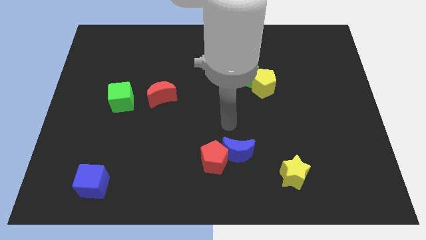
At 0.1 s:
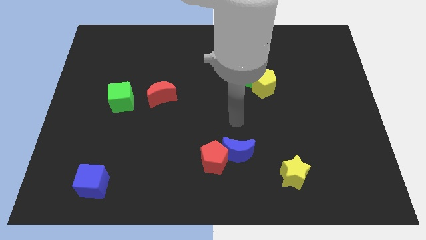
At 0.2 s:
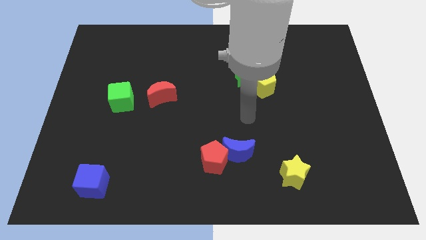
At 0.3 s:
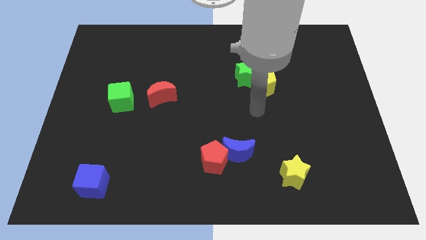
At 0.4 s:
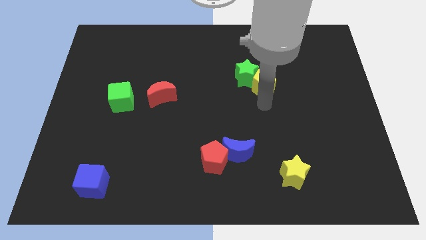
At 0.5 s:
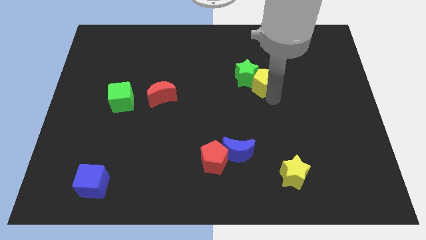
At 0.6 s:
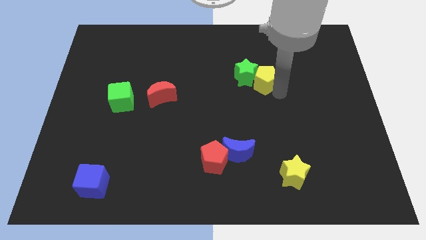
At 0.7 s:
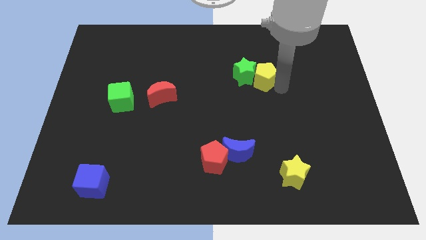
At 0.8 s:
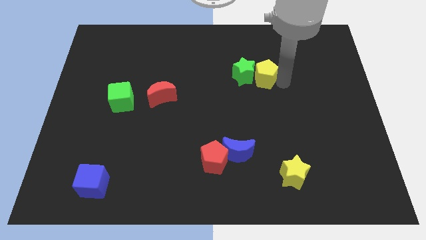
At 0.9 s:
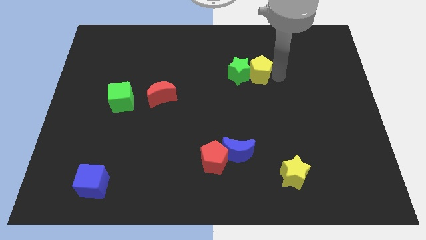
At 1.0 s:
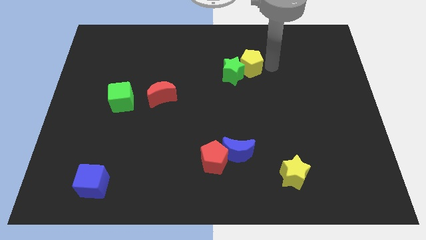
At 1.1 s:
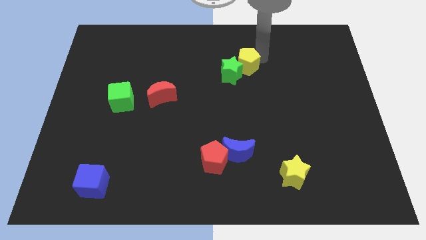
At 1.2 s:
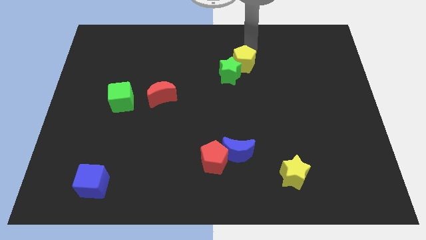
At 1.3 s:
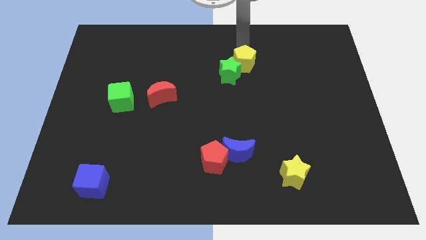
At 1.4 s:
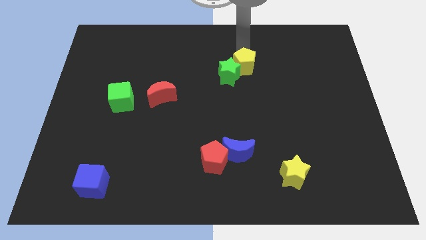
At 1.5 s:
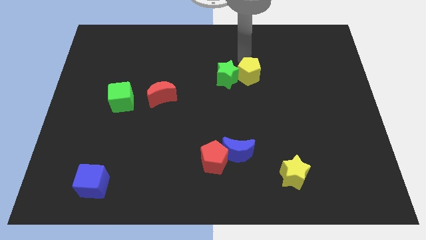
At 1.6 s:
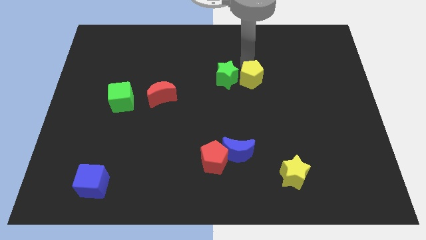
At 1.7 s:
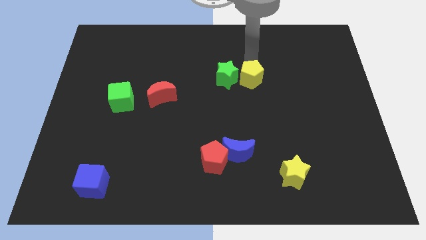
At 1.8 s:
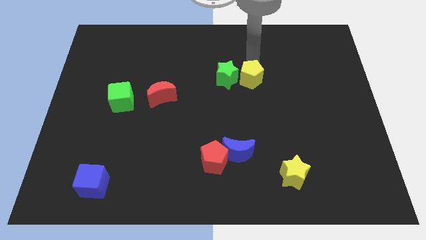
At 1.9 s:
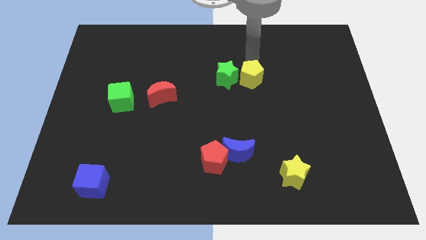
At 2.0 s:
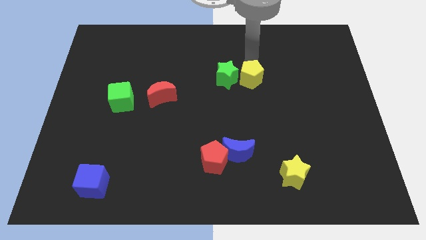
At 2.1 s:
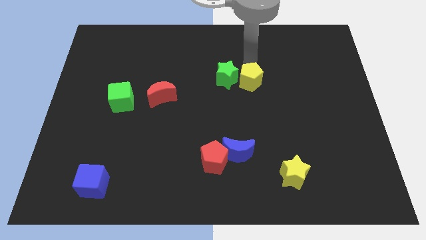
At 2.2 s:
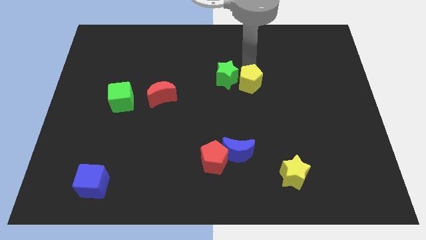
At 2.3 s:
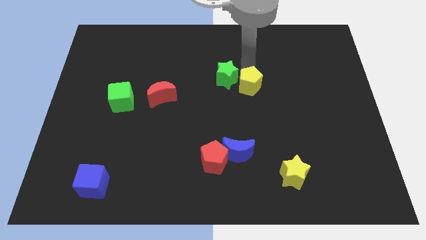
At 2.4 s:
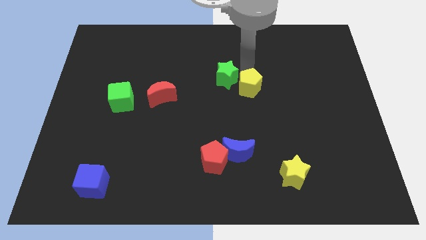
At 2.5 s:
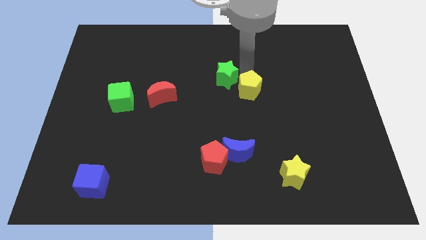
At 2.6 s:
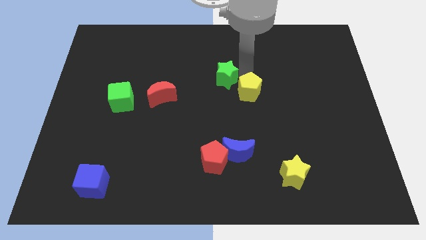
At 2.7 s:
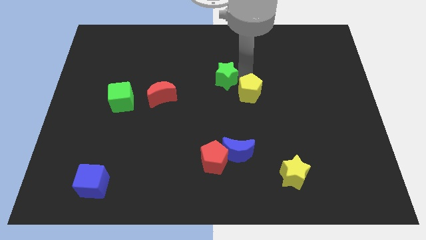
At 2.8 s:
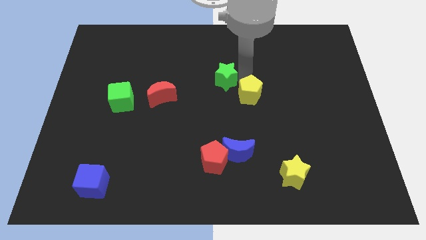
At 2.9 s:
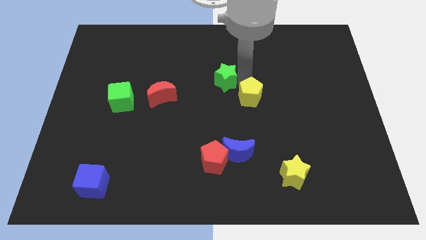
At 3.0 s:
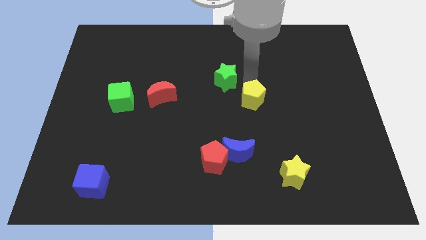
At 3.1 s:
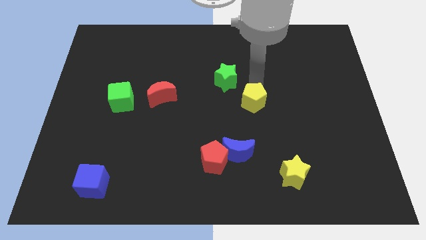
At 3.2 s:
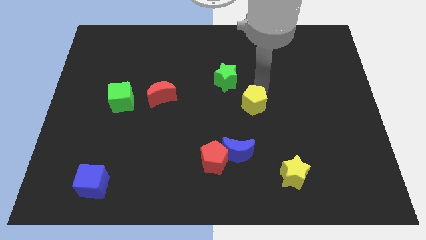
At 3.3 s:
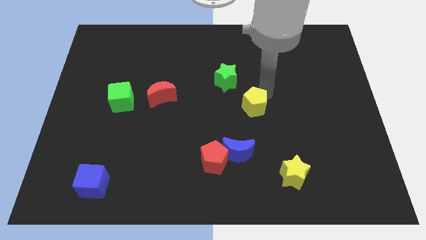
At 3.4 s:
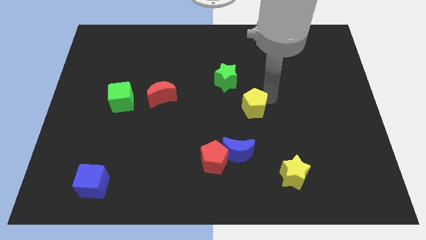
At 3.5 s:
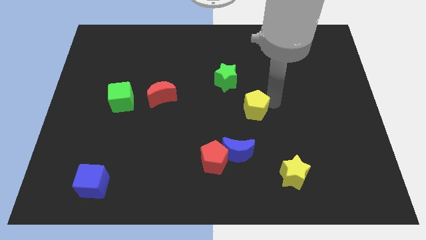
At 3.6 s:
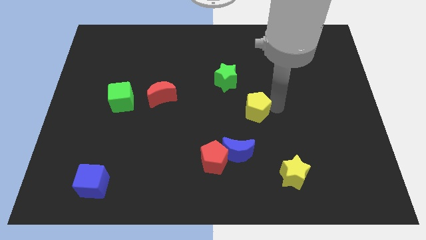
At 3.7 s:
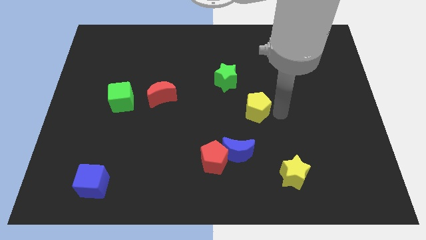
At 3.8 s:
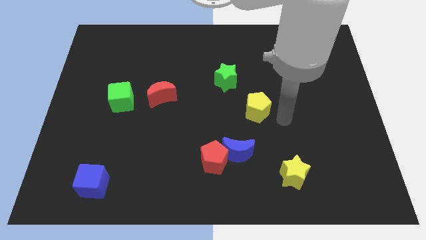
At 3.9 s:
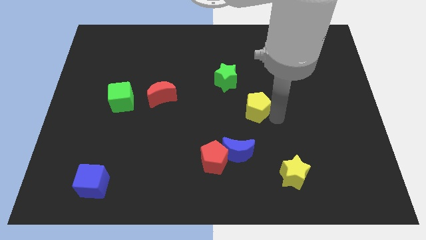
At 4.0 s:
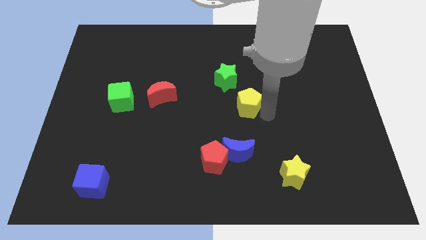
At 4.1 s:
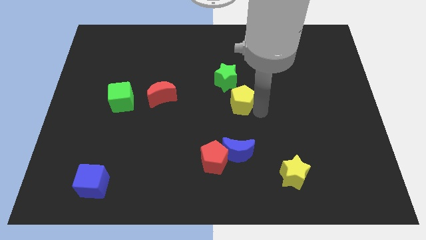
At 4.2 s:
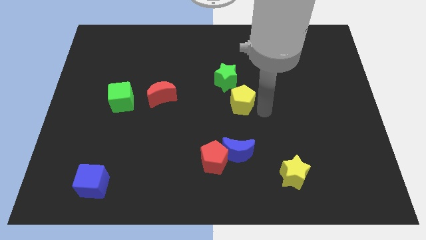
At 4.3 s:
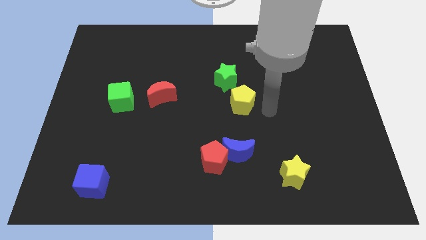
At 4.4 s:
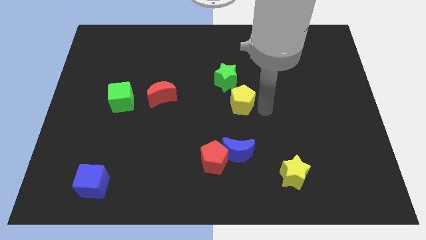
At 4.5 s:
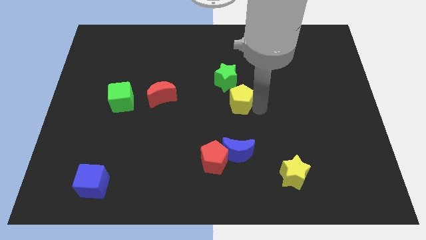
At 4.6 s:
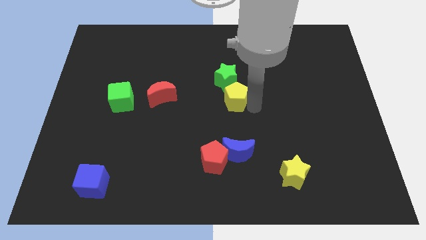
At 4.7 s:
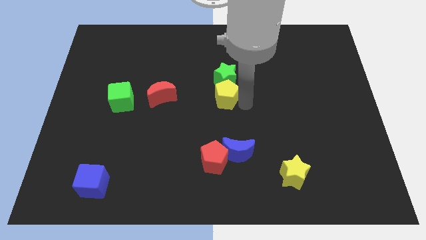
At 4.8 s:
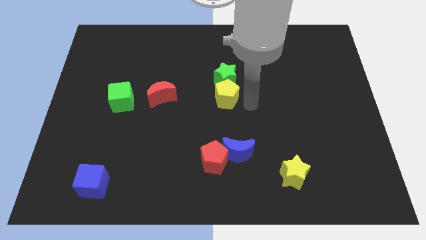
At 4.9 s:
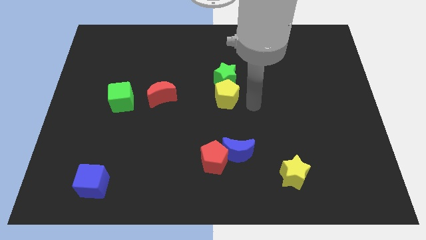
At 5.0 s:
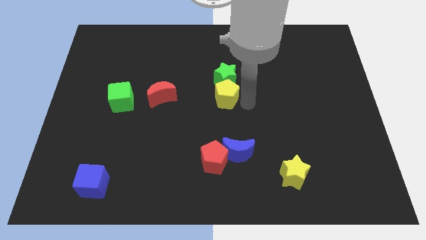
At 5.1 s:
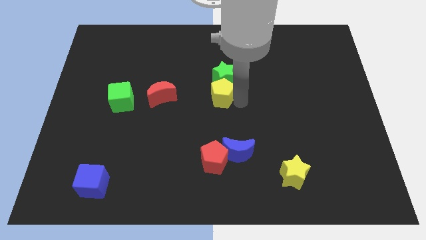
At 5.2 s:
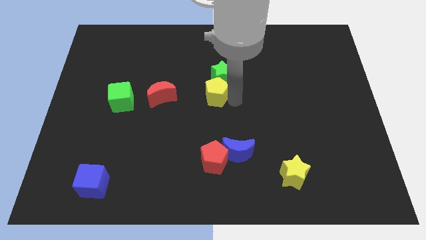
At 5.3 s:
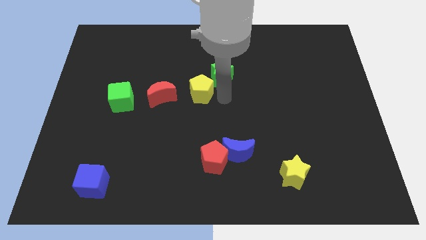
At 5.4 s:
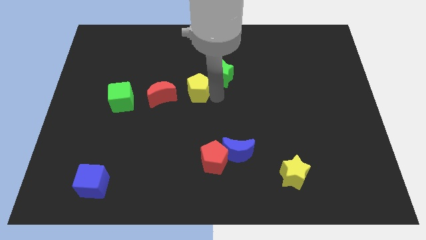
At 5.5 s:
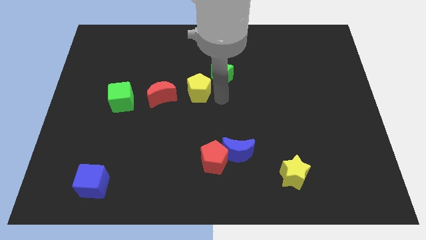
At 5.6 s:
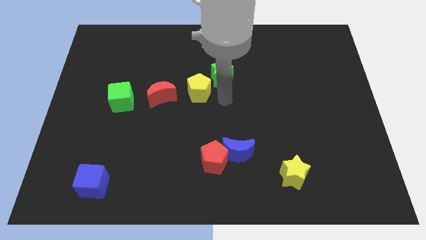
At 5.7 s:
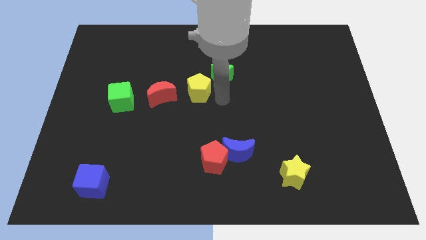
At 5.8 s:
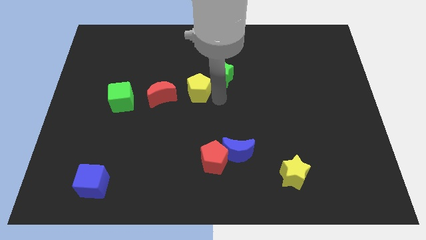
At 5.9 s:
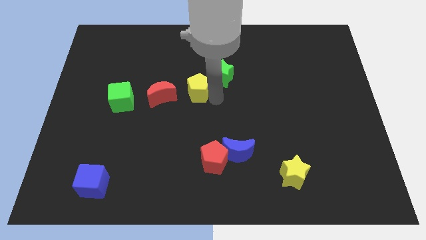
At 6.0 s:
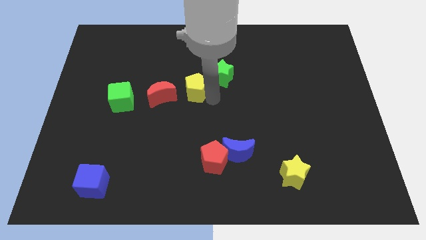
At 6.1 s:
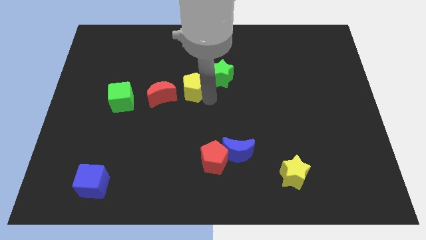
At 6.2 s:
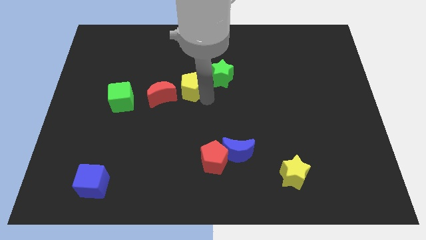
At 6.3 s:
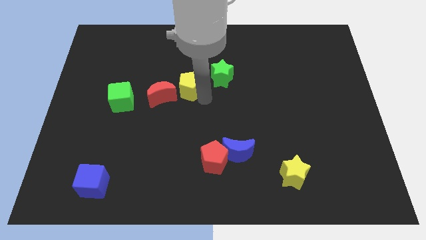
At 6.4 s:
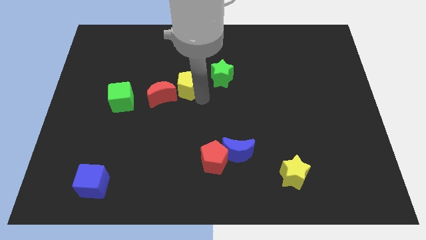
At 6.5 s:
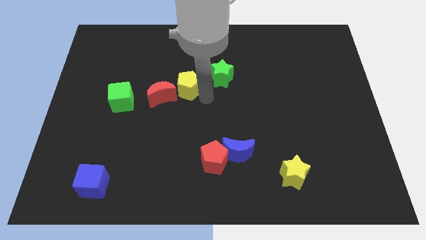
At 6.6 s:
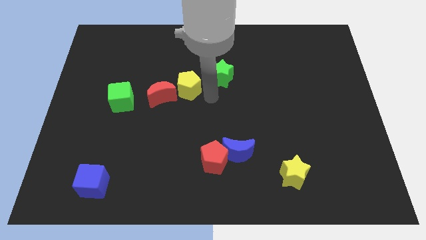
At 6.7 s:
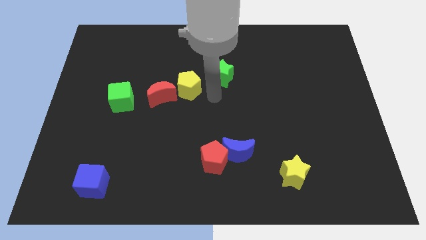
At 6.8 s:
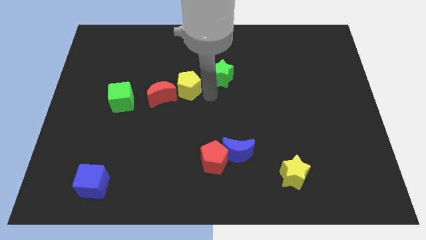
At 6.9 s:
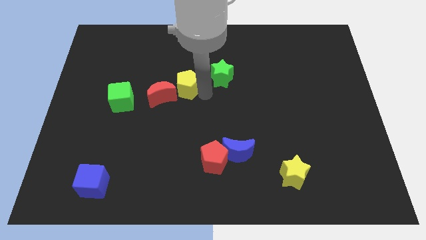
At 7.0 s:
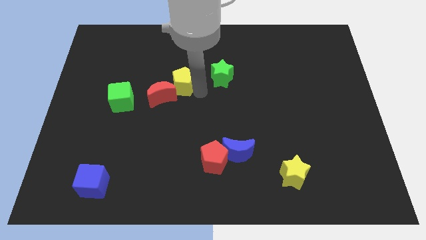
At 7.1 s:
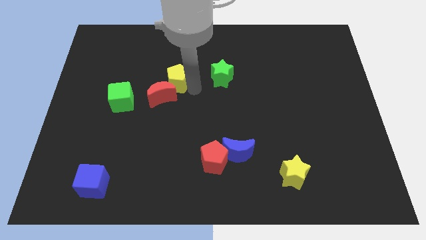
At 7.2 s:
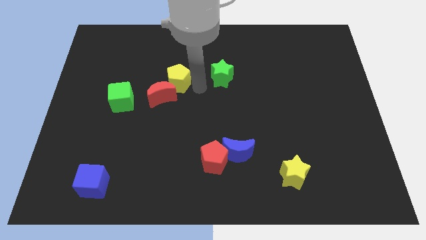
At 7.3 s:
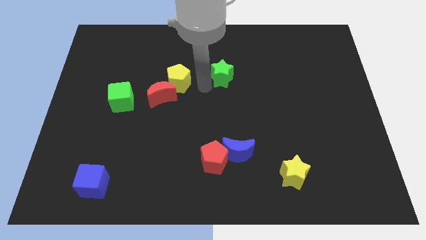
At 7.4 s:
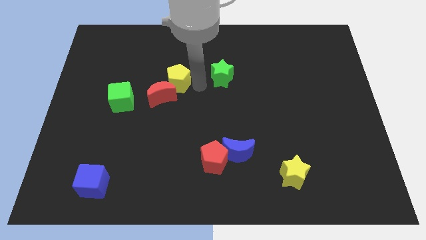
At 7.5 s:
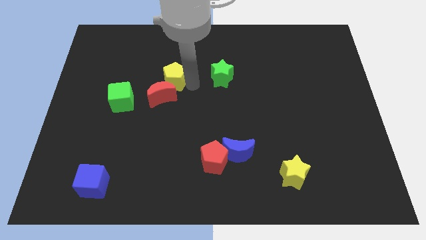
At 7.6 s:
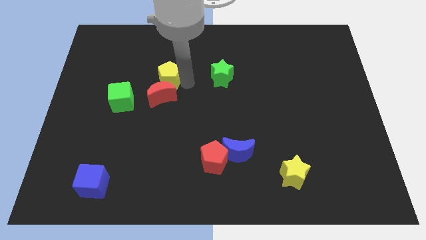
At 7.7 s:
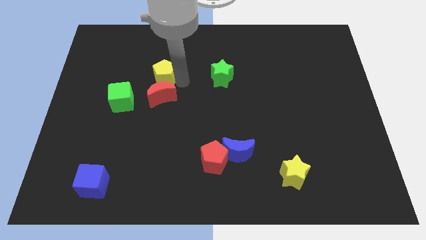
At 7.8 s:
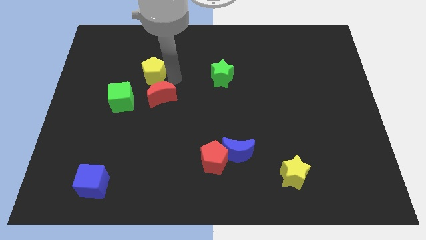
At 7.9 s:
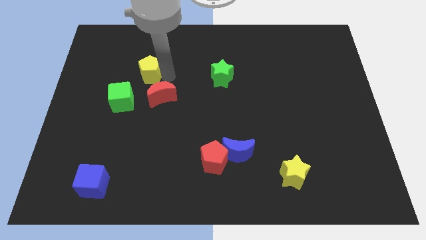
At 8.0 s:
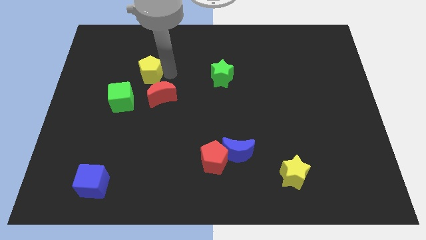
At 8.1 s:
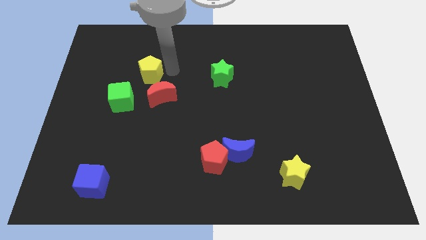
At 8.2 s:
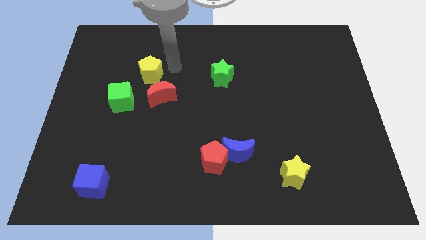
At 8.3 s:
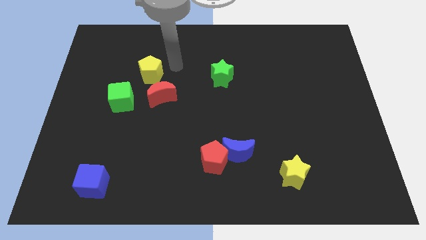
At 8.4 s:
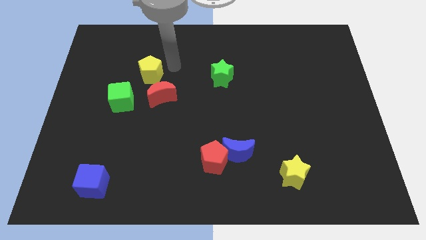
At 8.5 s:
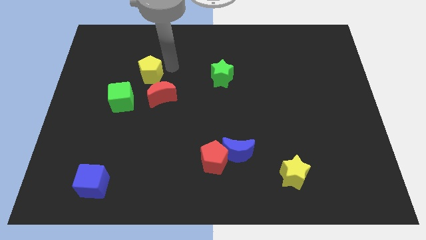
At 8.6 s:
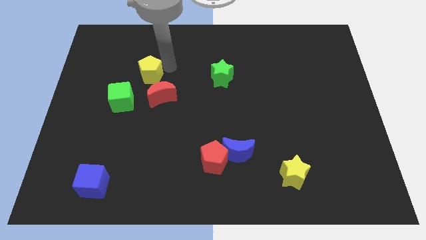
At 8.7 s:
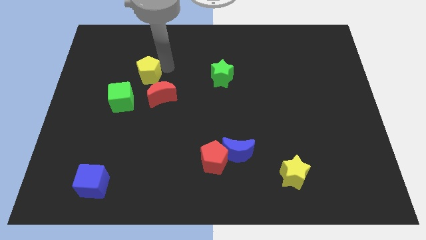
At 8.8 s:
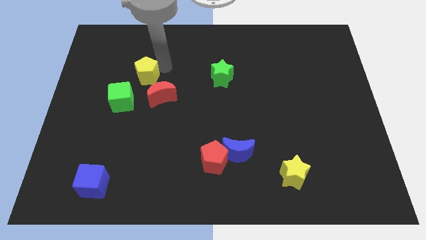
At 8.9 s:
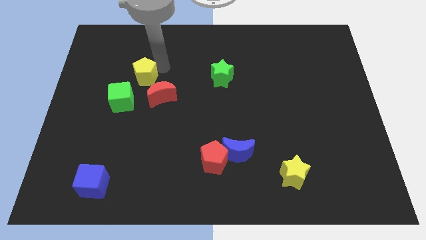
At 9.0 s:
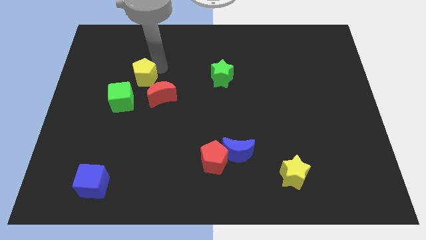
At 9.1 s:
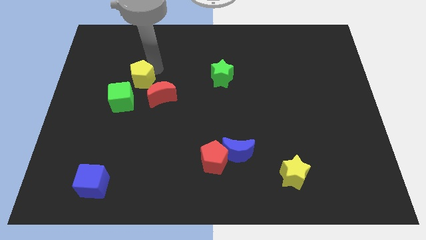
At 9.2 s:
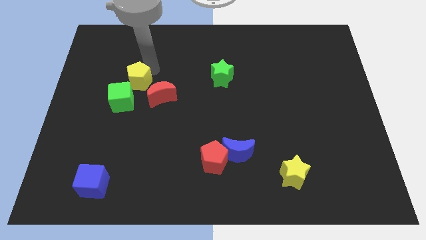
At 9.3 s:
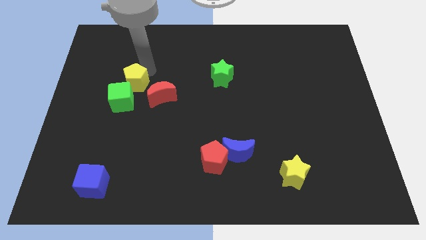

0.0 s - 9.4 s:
slide the yellow pentagon to the left of the red moon
